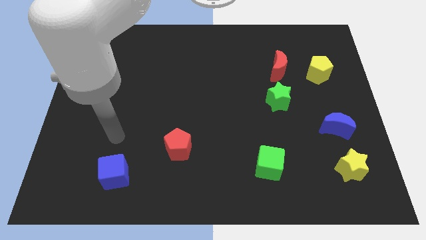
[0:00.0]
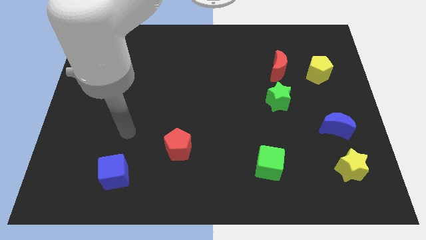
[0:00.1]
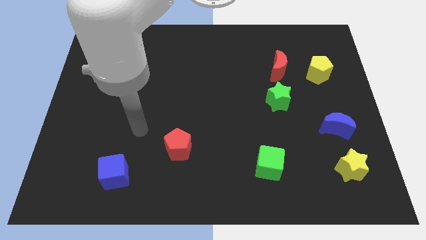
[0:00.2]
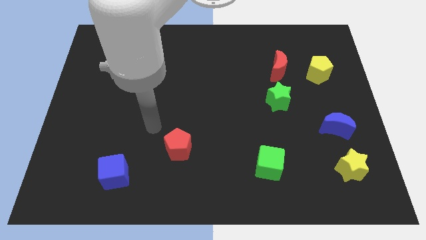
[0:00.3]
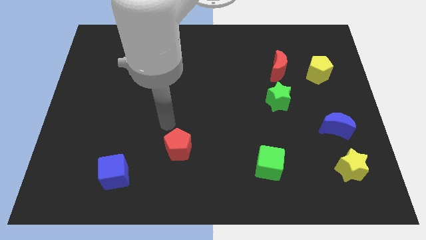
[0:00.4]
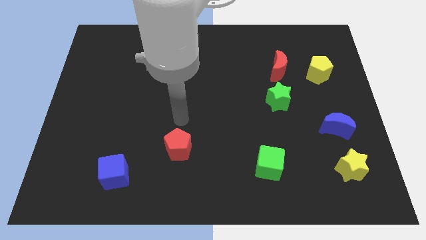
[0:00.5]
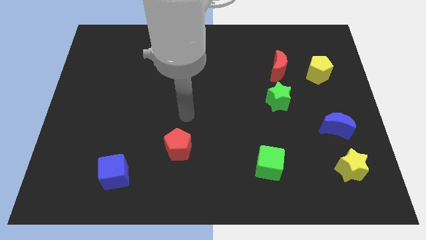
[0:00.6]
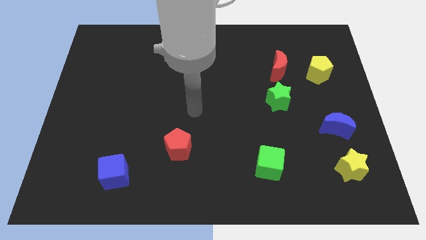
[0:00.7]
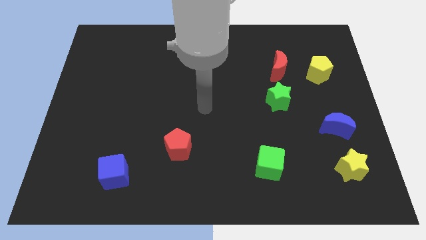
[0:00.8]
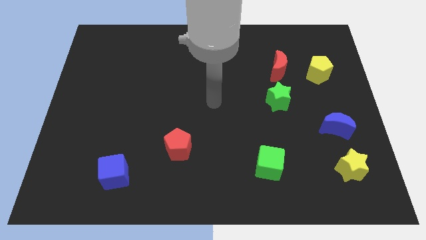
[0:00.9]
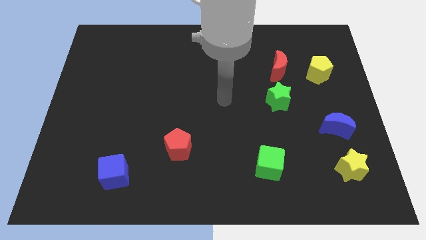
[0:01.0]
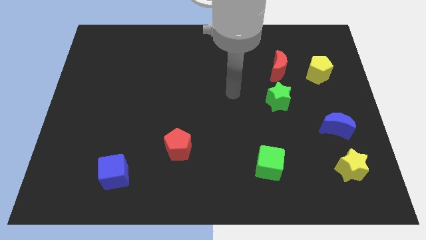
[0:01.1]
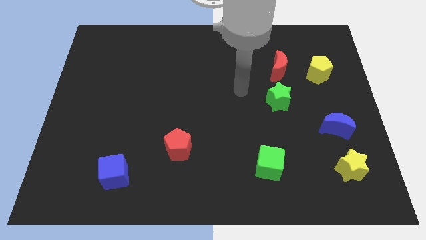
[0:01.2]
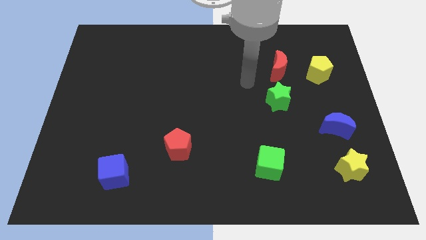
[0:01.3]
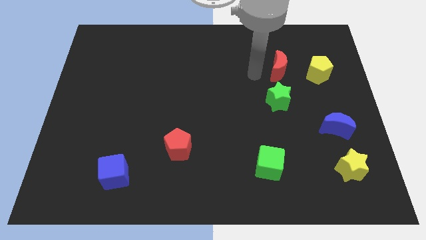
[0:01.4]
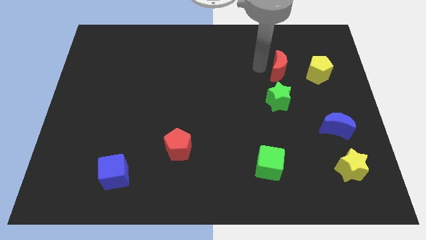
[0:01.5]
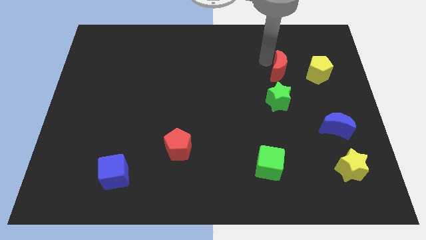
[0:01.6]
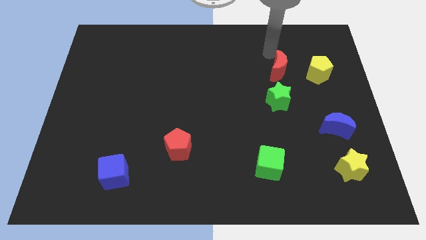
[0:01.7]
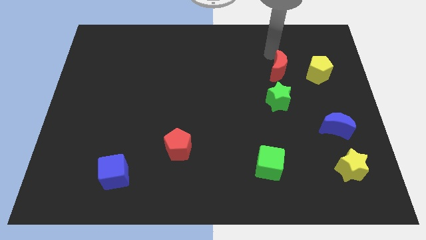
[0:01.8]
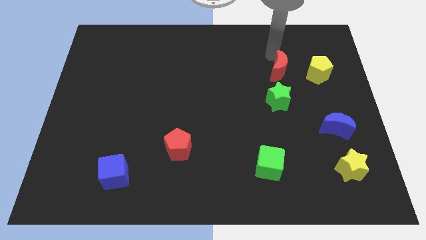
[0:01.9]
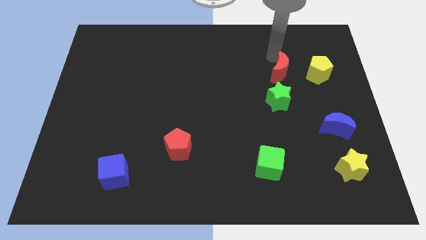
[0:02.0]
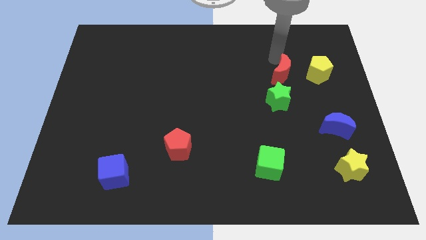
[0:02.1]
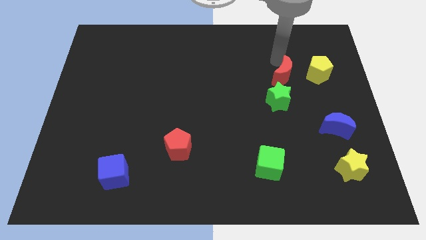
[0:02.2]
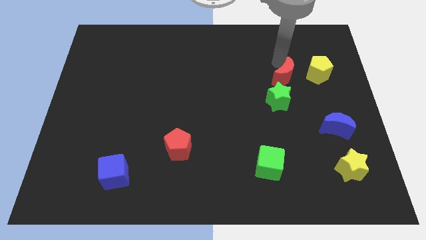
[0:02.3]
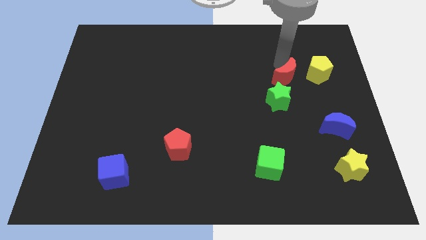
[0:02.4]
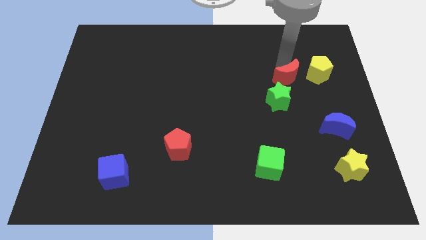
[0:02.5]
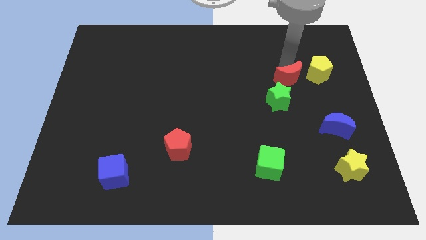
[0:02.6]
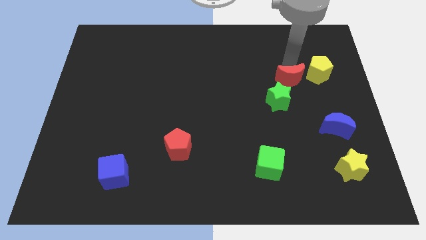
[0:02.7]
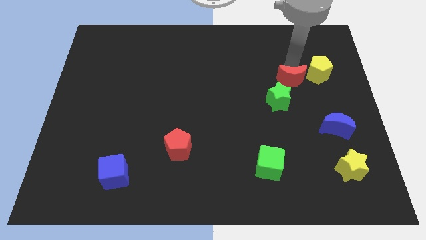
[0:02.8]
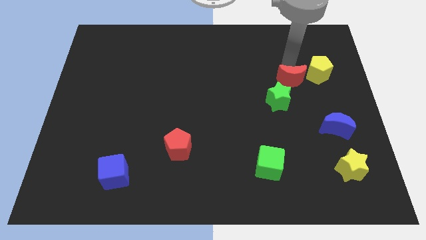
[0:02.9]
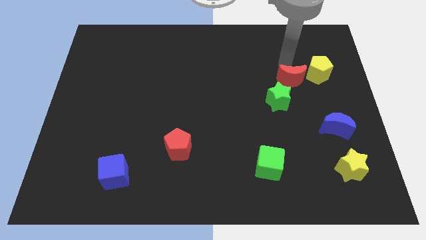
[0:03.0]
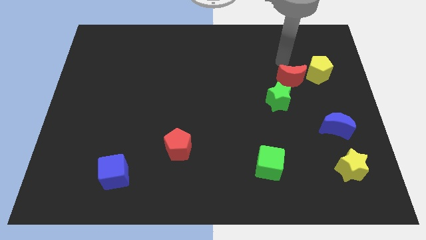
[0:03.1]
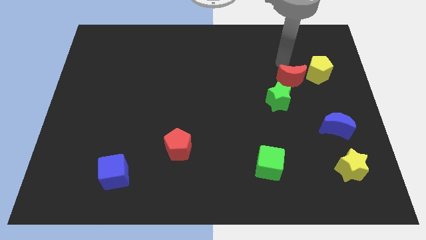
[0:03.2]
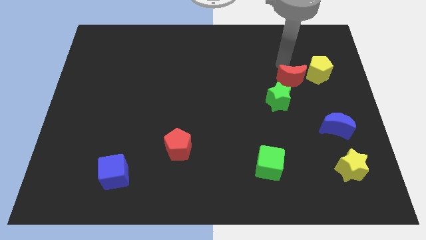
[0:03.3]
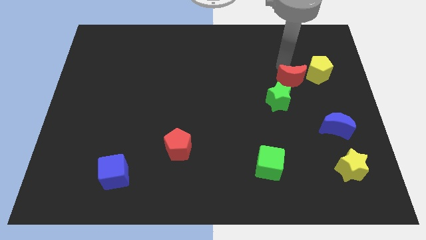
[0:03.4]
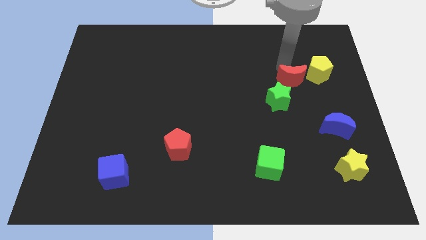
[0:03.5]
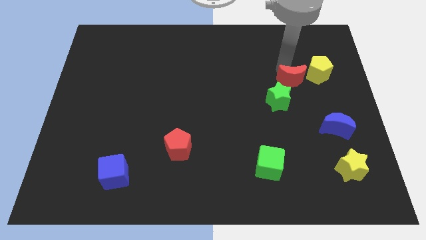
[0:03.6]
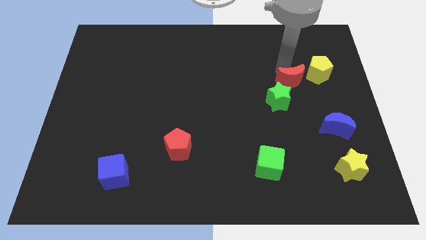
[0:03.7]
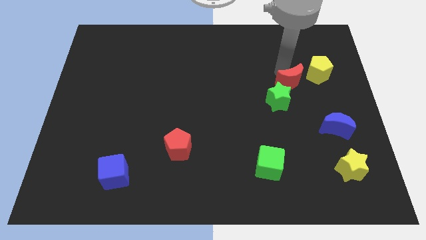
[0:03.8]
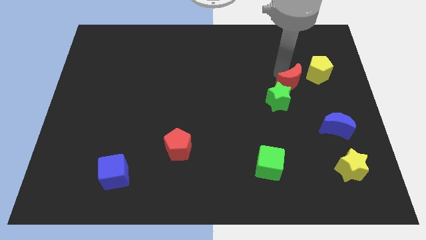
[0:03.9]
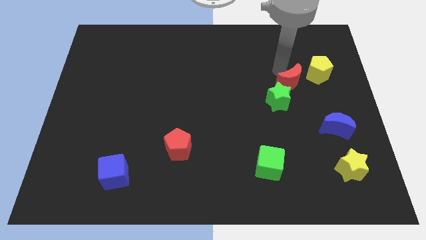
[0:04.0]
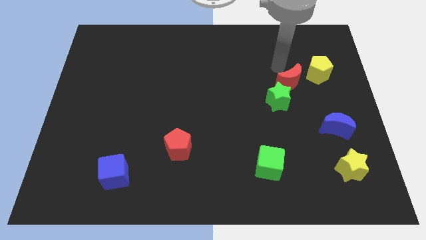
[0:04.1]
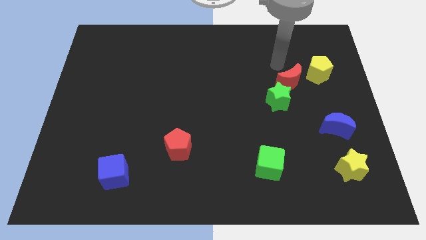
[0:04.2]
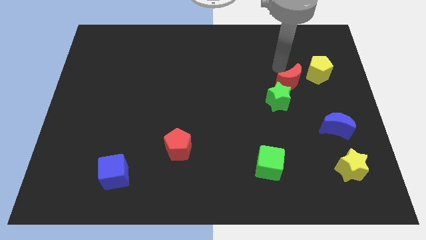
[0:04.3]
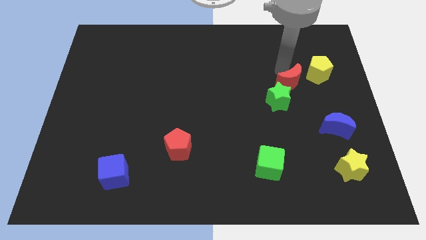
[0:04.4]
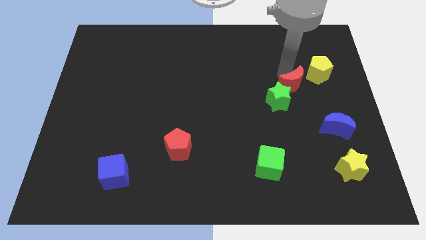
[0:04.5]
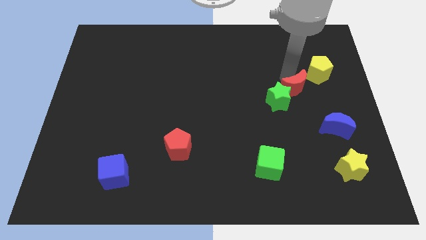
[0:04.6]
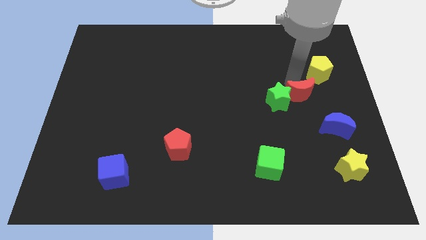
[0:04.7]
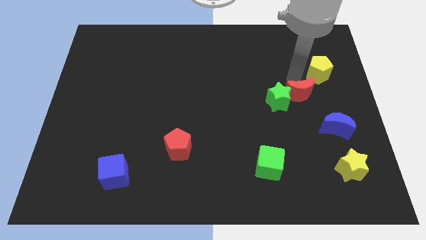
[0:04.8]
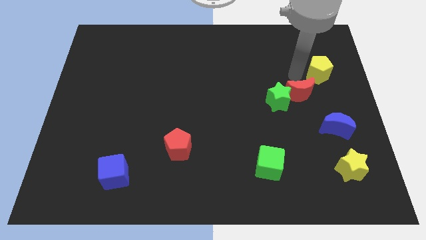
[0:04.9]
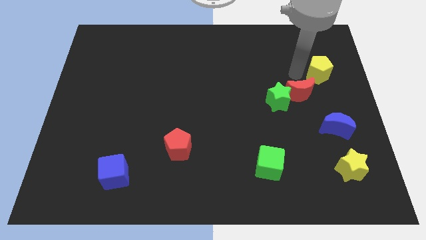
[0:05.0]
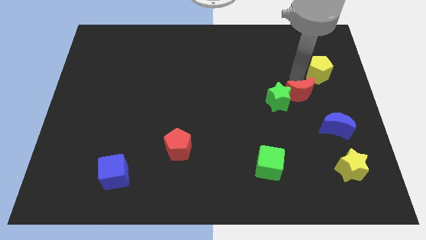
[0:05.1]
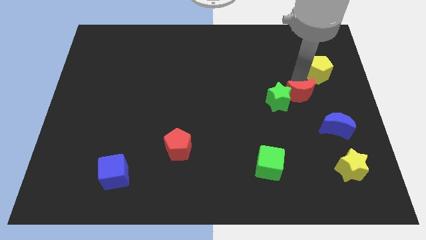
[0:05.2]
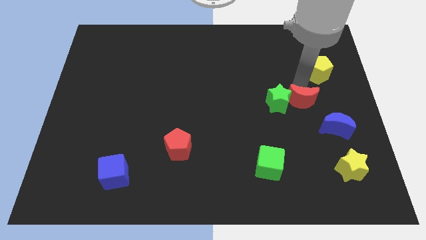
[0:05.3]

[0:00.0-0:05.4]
push the red moon diagonally down and to the right of the green star

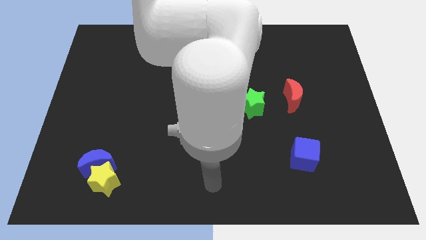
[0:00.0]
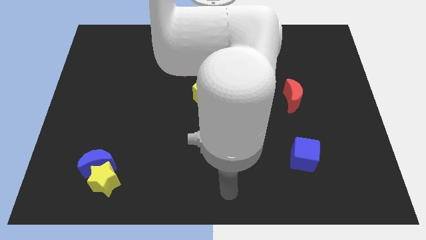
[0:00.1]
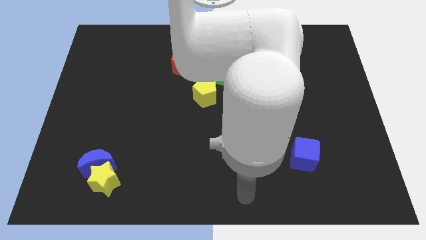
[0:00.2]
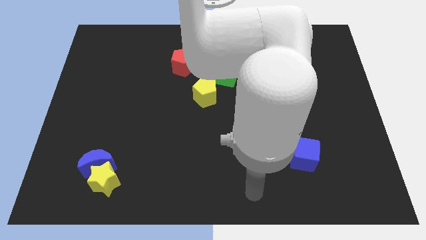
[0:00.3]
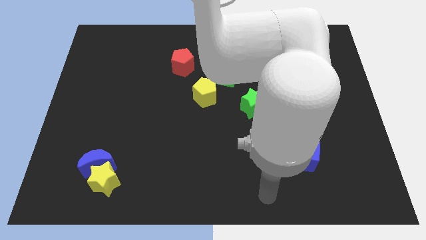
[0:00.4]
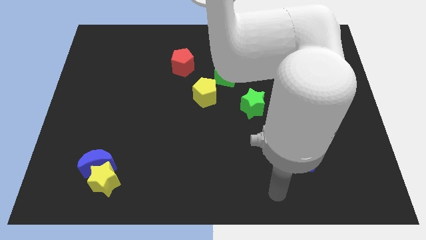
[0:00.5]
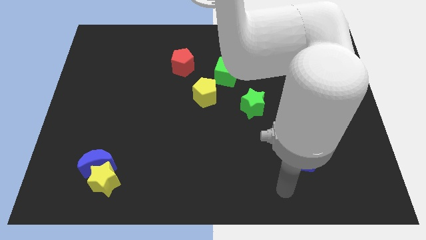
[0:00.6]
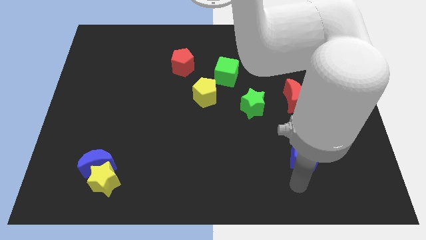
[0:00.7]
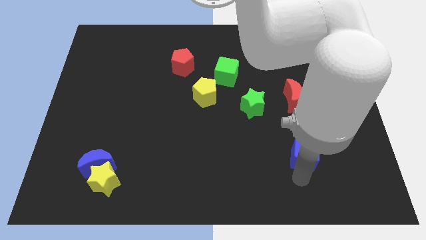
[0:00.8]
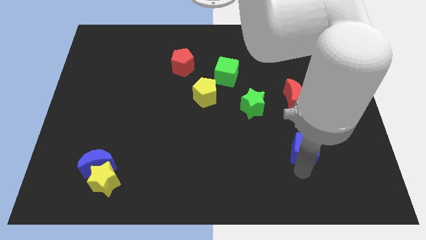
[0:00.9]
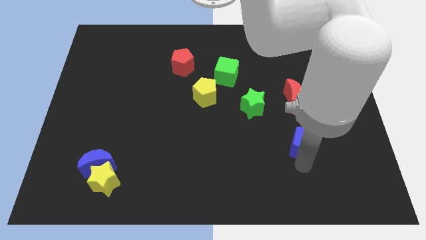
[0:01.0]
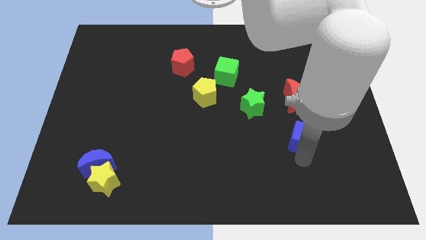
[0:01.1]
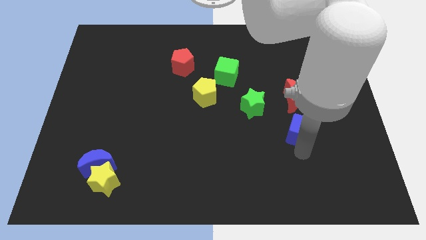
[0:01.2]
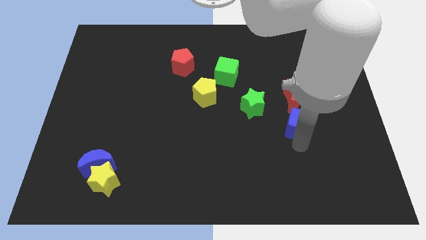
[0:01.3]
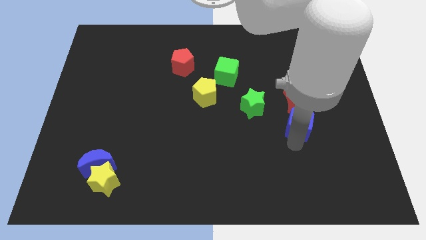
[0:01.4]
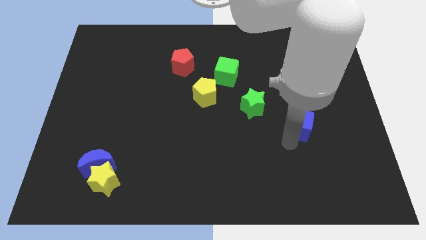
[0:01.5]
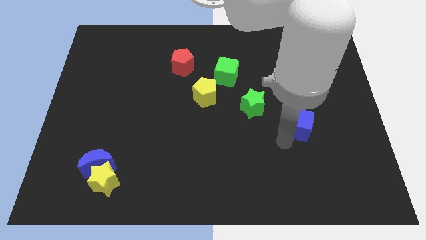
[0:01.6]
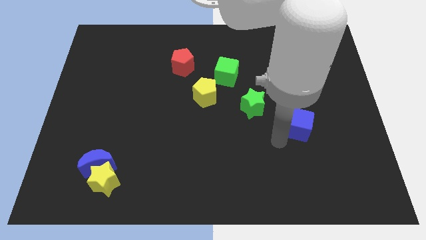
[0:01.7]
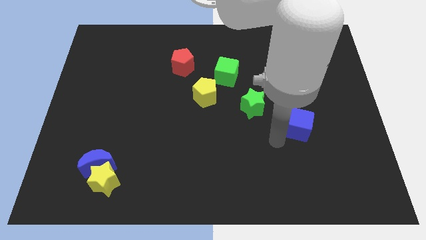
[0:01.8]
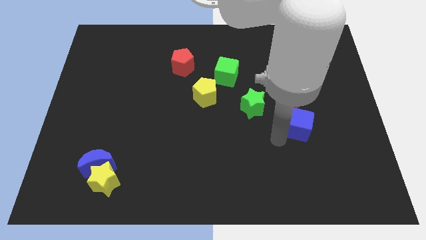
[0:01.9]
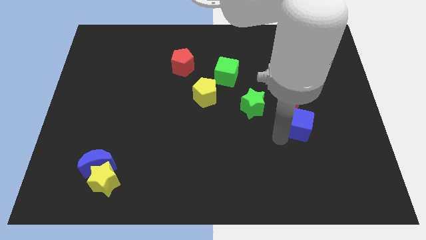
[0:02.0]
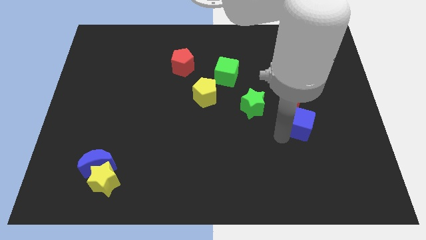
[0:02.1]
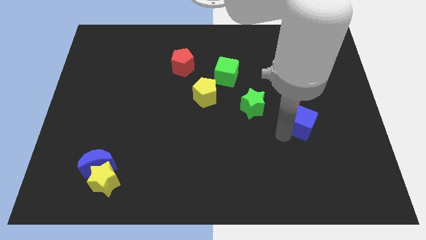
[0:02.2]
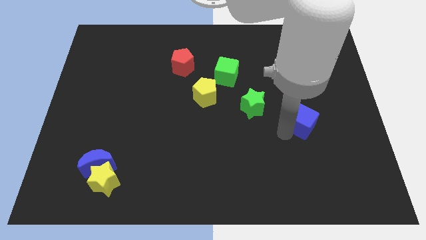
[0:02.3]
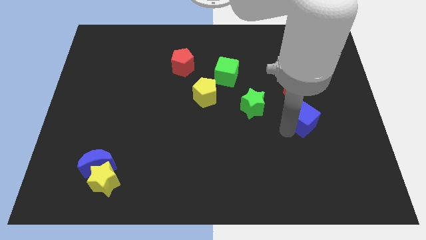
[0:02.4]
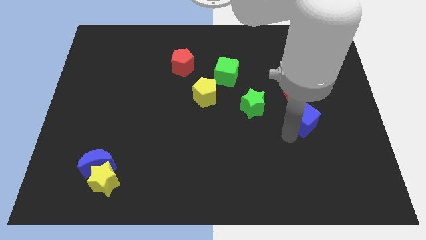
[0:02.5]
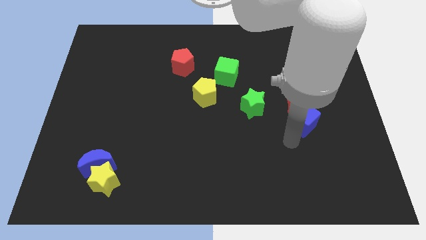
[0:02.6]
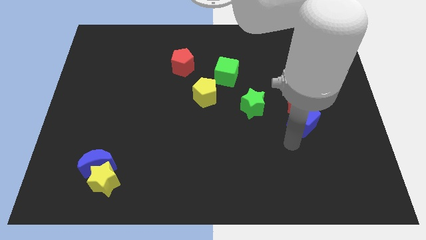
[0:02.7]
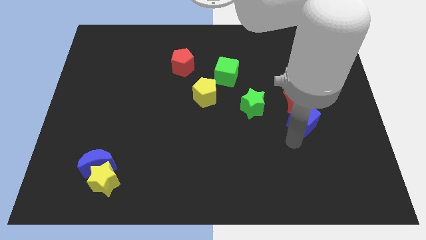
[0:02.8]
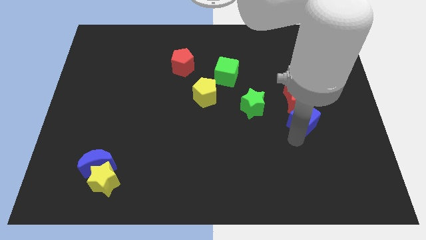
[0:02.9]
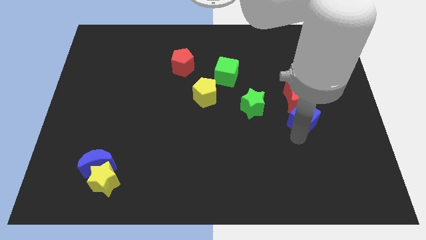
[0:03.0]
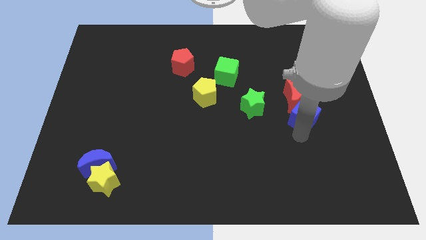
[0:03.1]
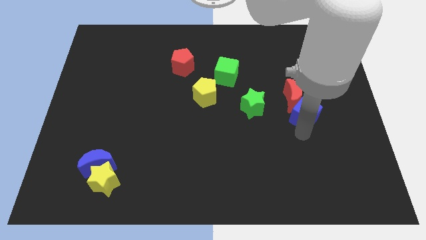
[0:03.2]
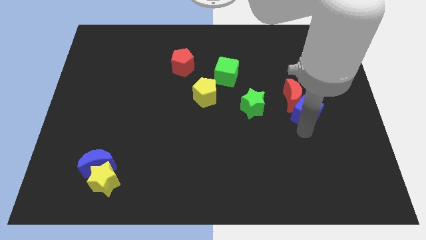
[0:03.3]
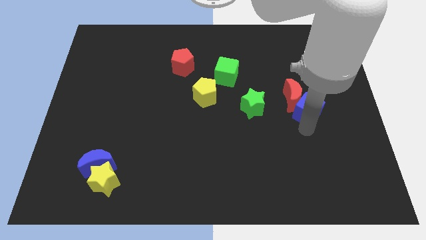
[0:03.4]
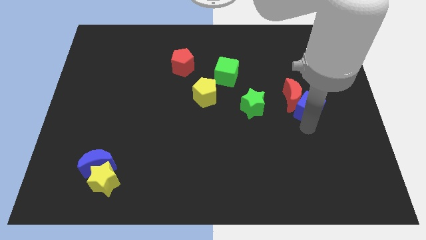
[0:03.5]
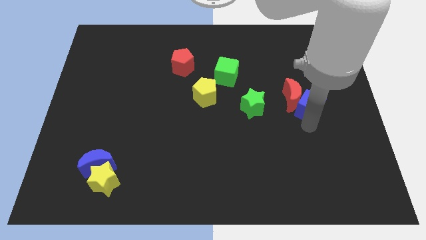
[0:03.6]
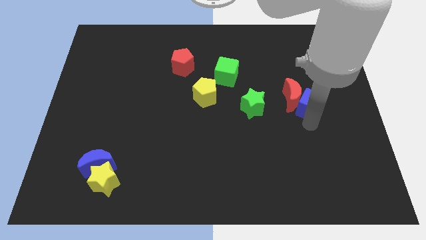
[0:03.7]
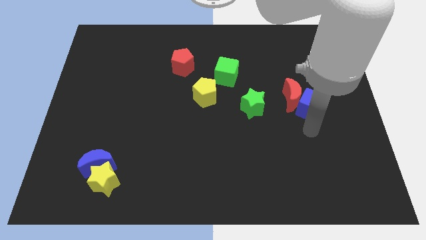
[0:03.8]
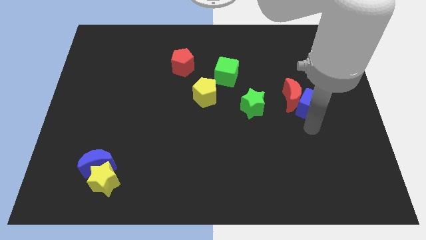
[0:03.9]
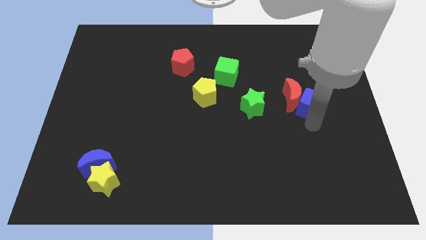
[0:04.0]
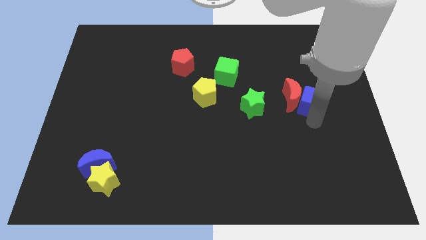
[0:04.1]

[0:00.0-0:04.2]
move the blue cube to the top right side of the red moon
